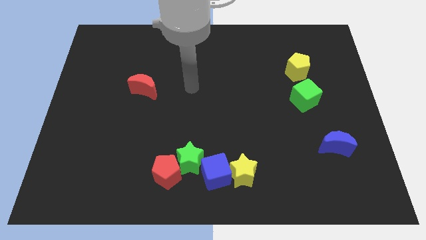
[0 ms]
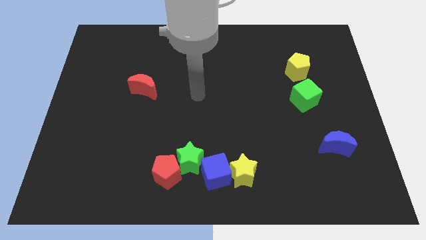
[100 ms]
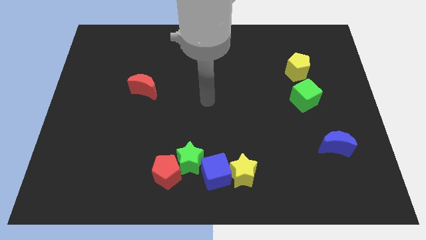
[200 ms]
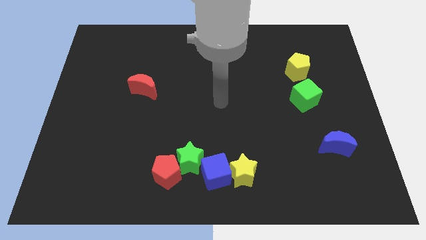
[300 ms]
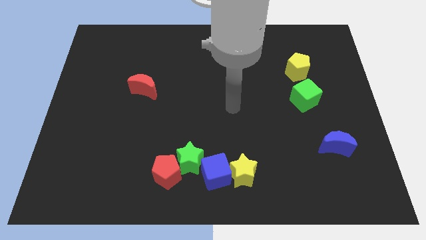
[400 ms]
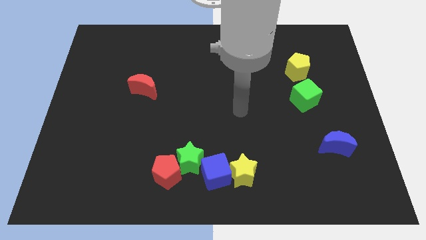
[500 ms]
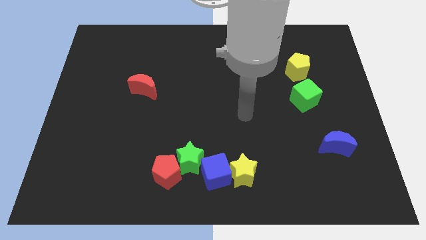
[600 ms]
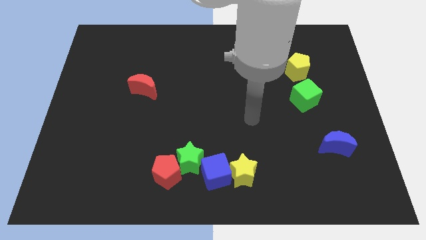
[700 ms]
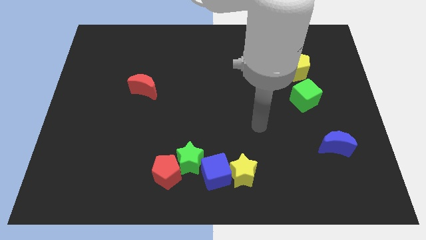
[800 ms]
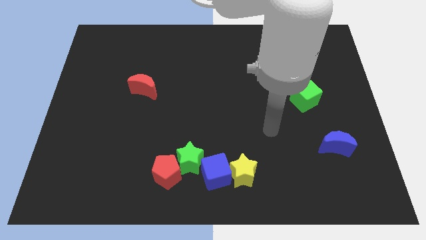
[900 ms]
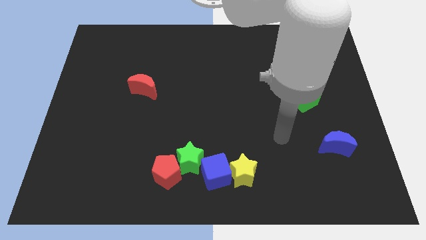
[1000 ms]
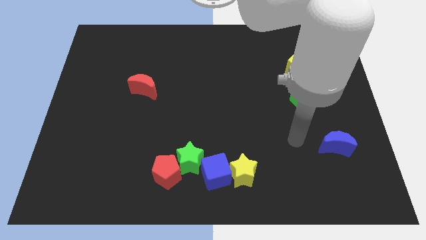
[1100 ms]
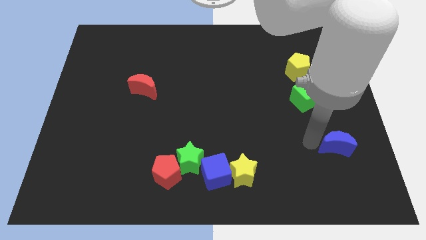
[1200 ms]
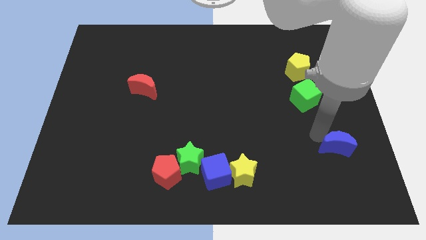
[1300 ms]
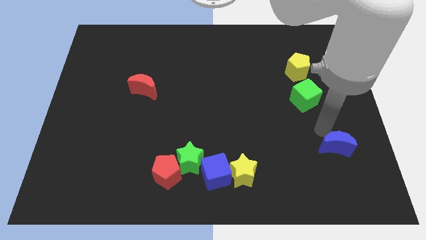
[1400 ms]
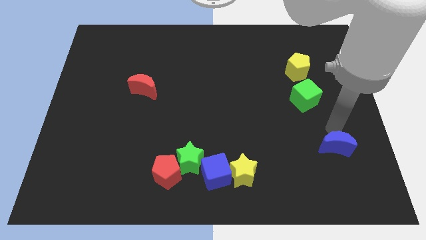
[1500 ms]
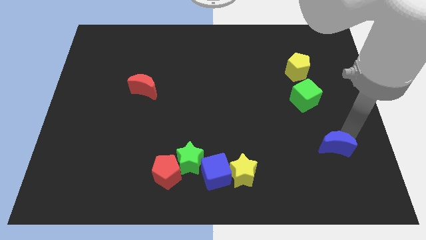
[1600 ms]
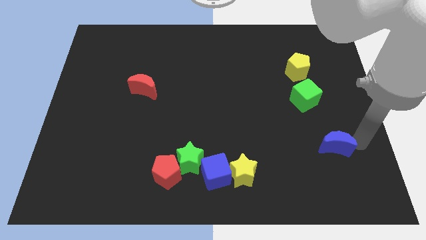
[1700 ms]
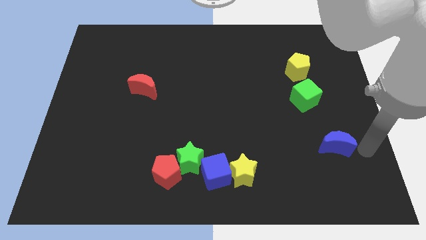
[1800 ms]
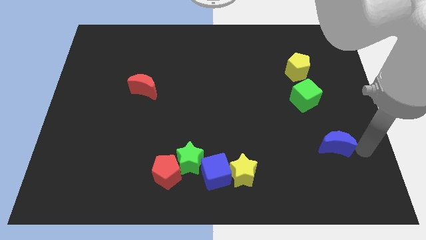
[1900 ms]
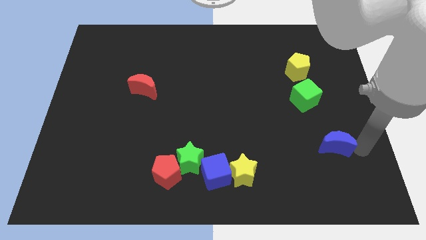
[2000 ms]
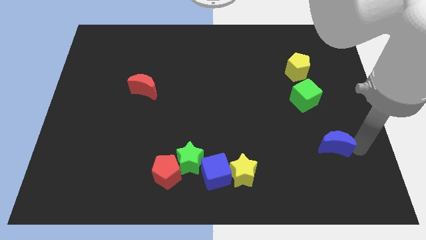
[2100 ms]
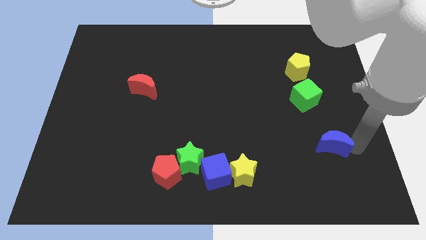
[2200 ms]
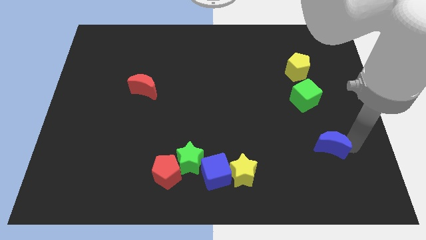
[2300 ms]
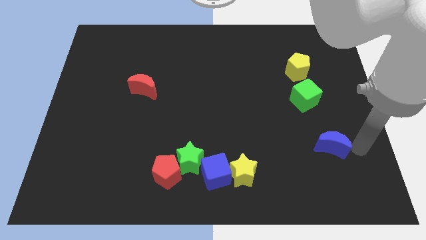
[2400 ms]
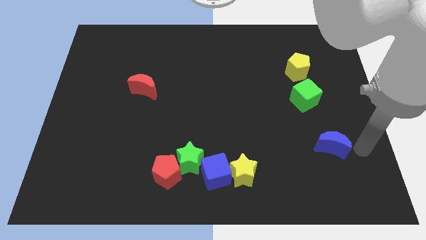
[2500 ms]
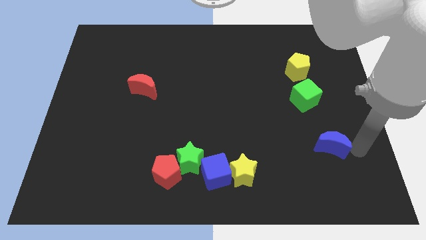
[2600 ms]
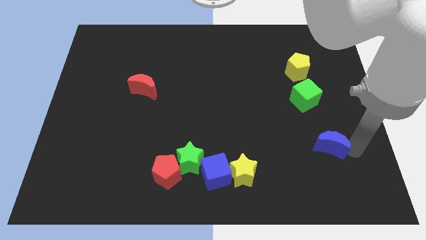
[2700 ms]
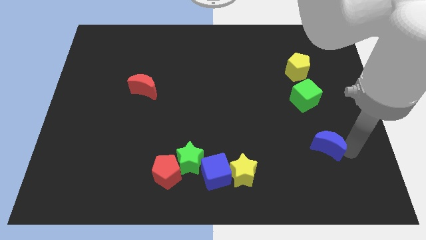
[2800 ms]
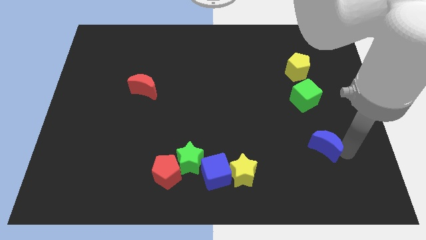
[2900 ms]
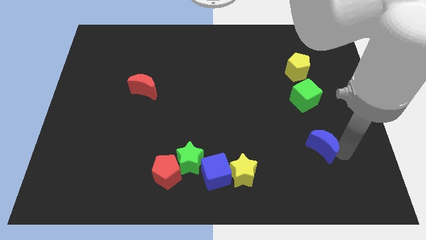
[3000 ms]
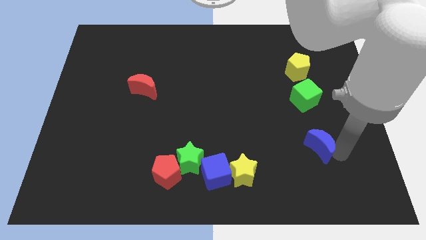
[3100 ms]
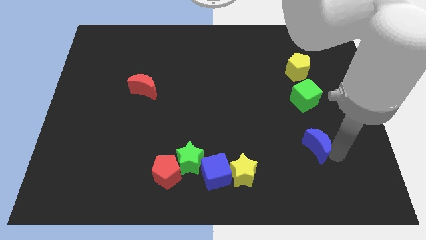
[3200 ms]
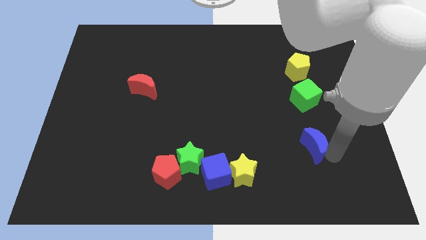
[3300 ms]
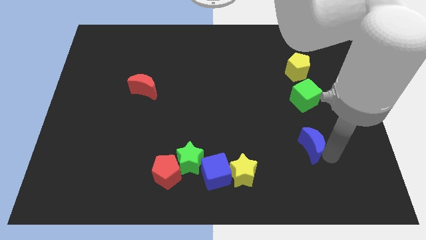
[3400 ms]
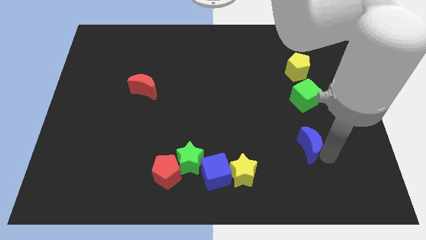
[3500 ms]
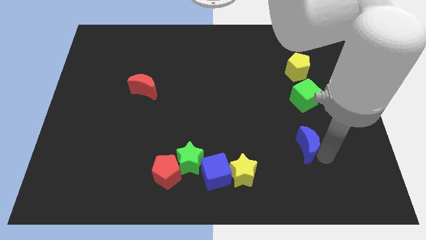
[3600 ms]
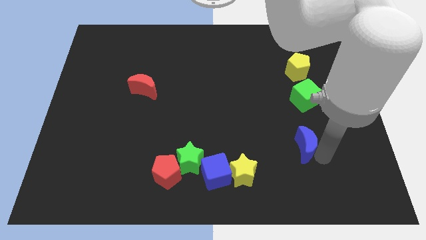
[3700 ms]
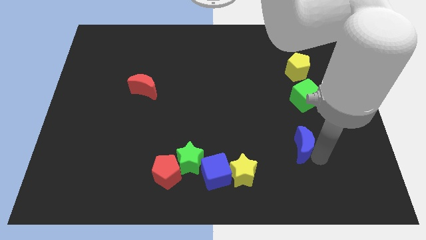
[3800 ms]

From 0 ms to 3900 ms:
slightly push the blue moon to the left

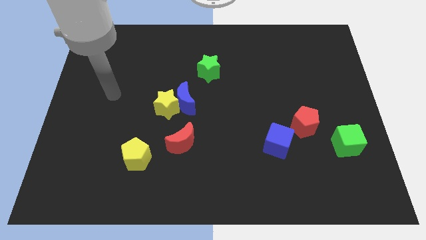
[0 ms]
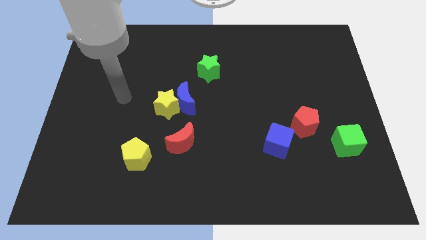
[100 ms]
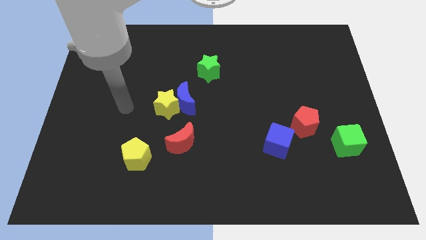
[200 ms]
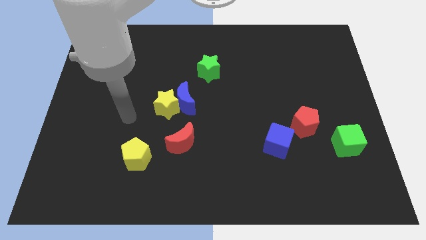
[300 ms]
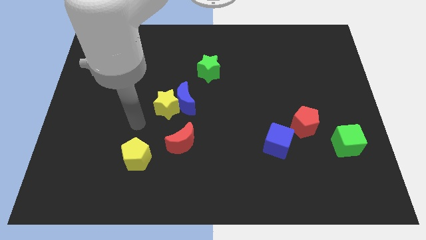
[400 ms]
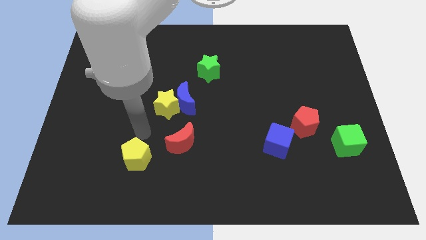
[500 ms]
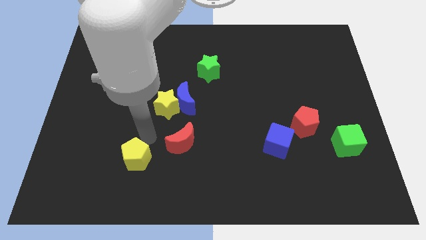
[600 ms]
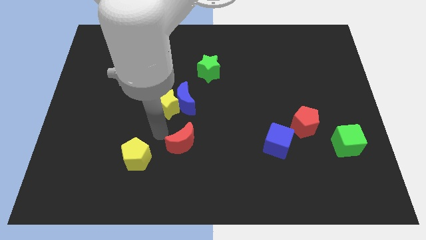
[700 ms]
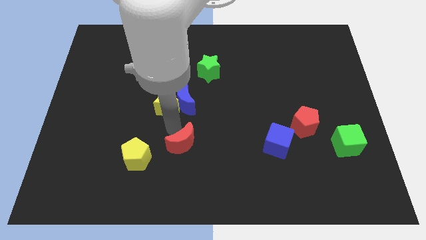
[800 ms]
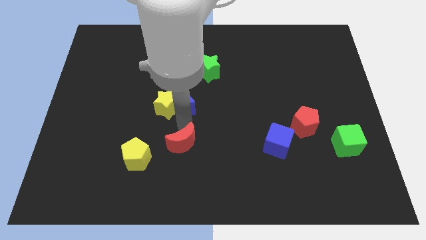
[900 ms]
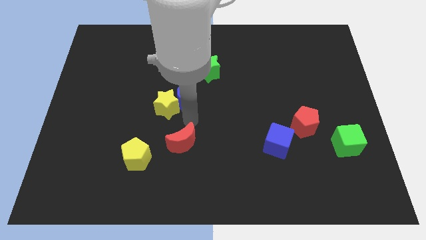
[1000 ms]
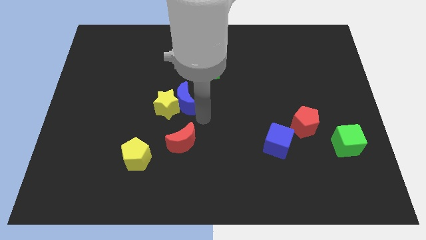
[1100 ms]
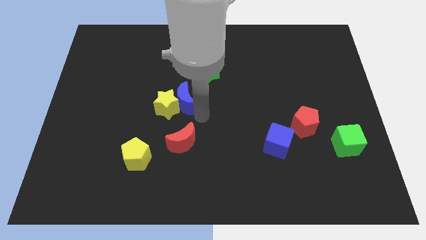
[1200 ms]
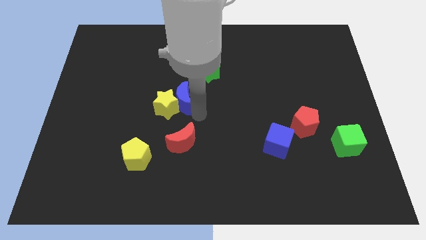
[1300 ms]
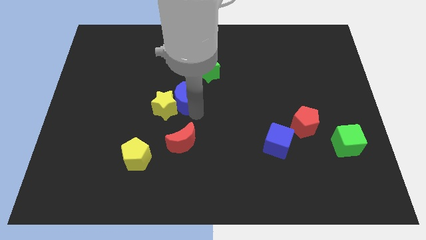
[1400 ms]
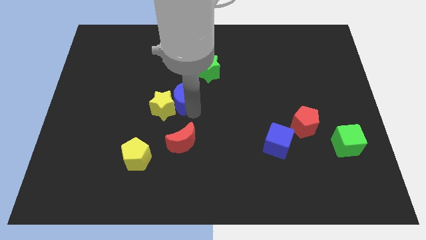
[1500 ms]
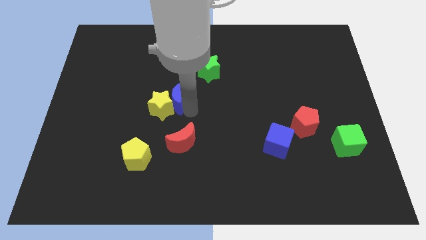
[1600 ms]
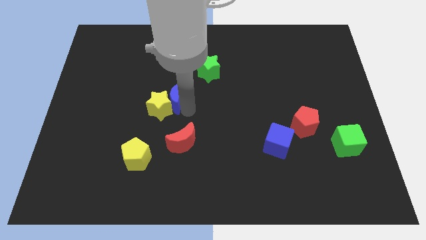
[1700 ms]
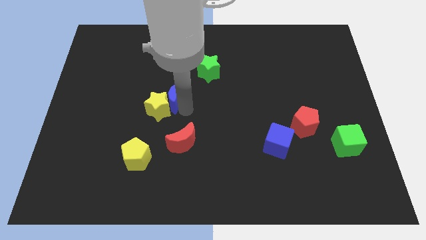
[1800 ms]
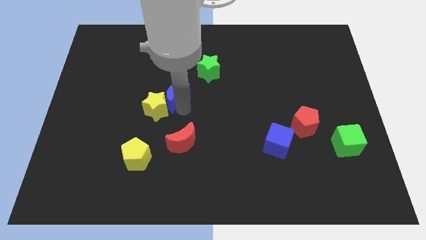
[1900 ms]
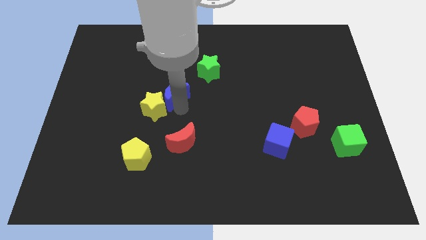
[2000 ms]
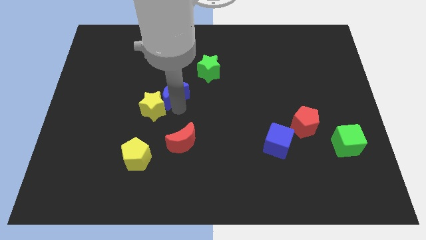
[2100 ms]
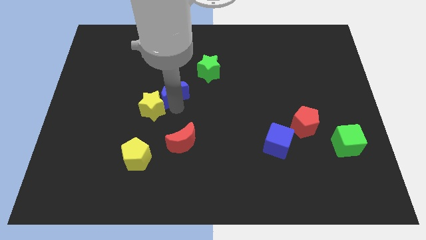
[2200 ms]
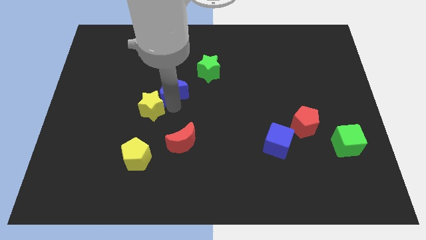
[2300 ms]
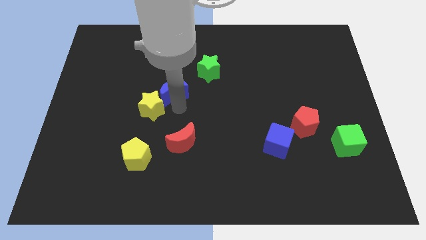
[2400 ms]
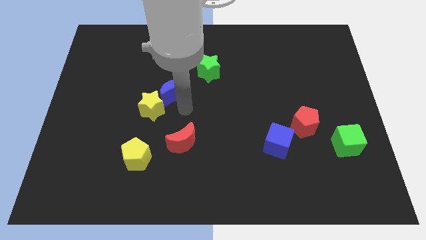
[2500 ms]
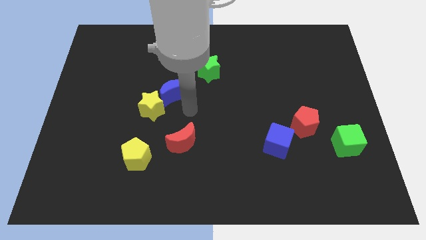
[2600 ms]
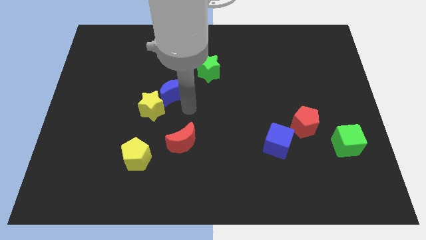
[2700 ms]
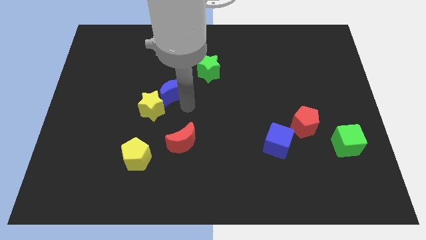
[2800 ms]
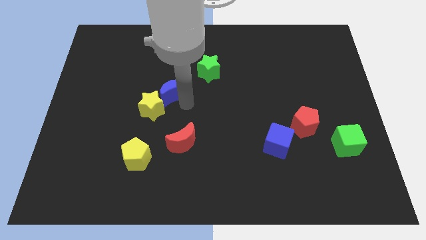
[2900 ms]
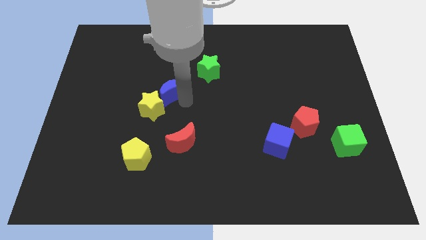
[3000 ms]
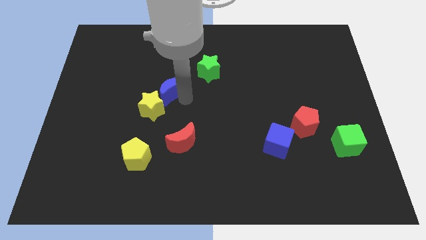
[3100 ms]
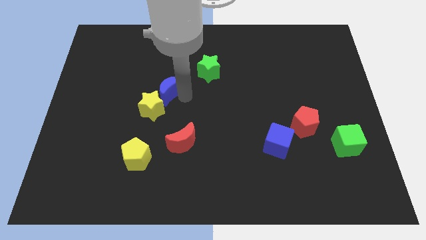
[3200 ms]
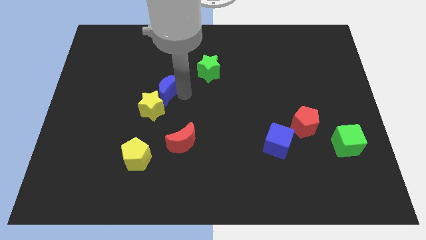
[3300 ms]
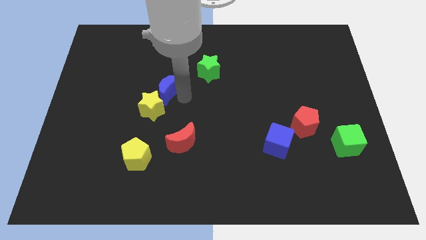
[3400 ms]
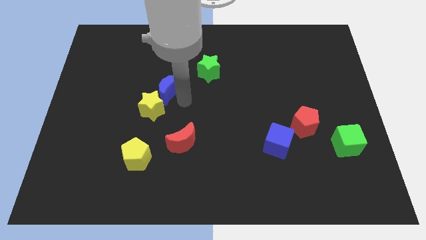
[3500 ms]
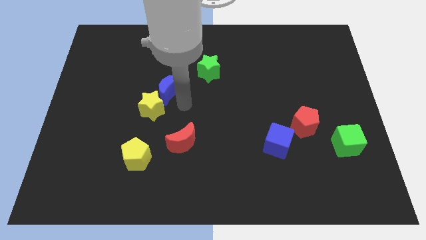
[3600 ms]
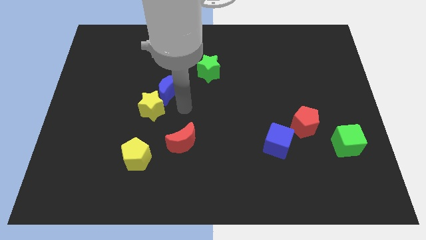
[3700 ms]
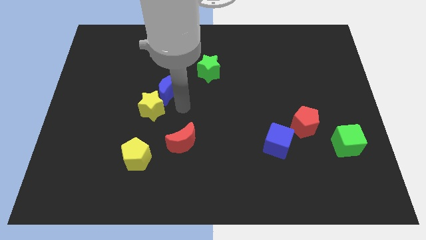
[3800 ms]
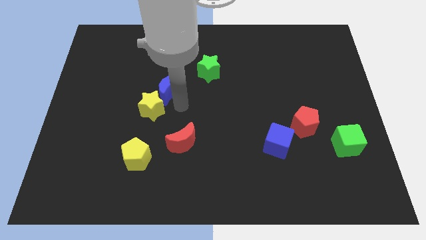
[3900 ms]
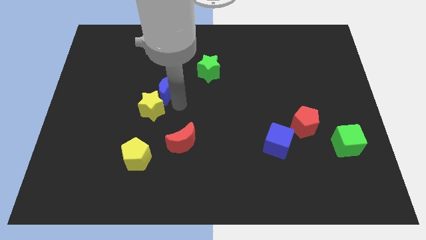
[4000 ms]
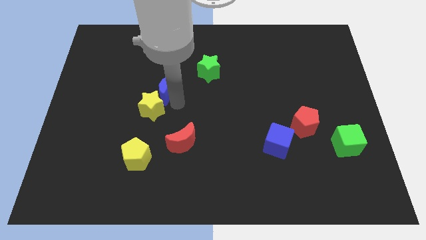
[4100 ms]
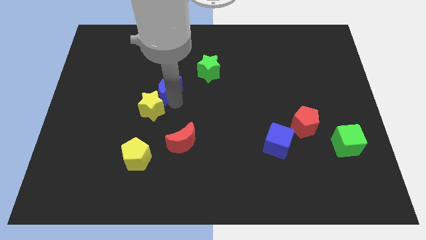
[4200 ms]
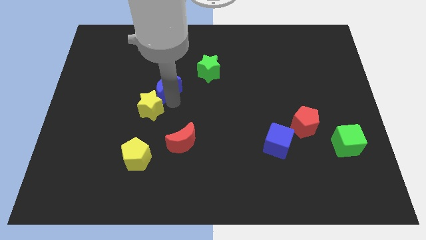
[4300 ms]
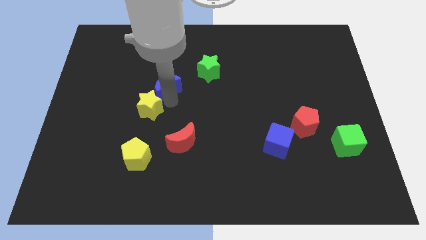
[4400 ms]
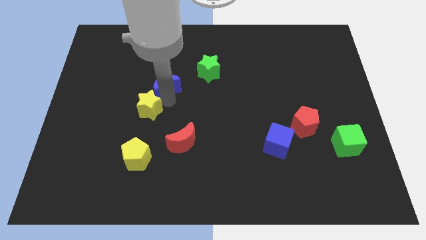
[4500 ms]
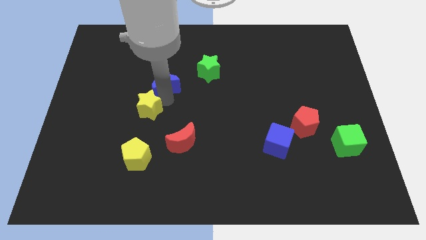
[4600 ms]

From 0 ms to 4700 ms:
move the blue moon diagonally upwards and to the left a bit
